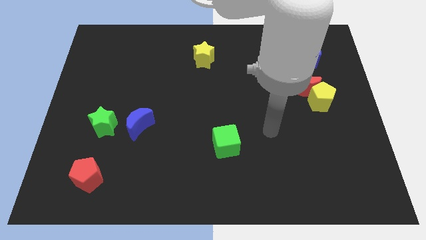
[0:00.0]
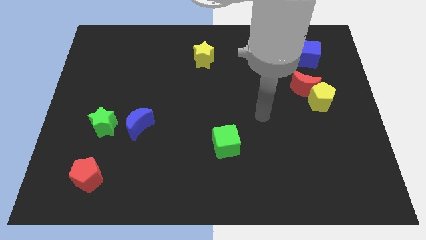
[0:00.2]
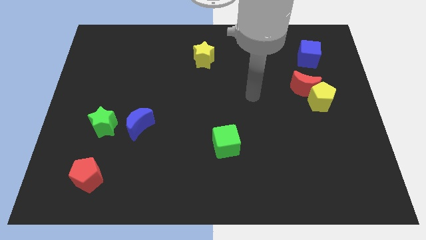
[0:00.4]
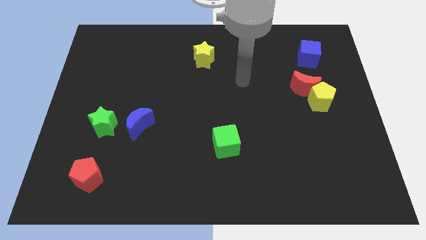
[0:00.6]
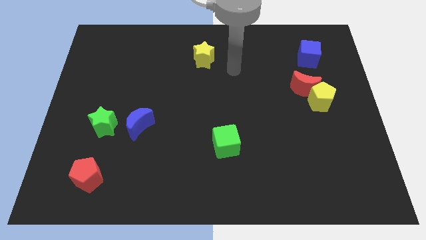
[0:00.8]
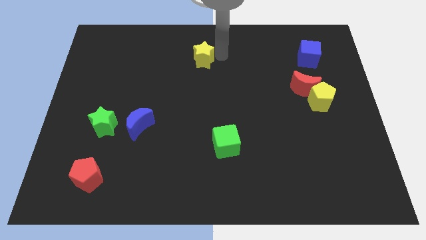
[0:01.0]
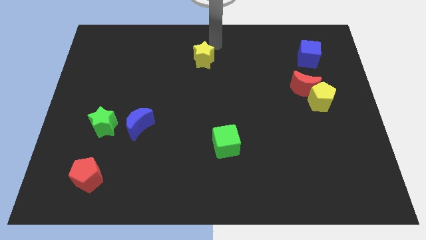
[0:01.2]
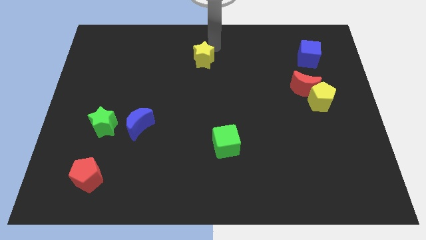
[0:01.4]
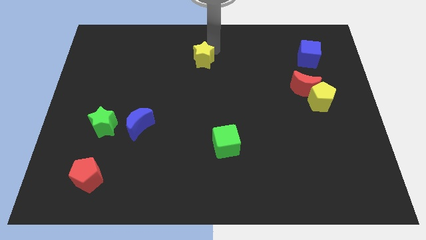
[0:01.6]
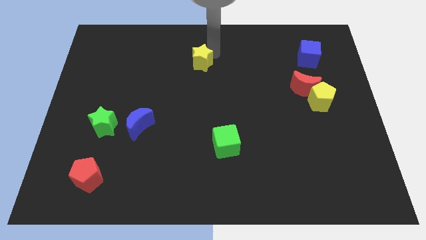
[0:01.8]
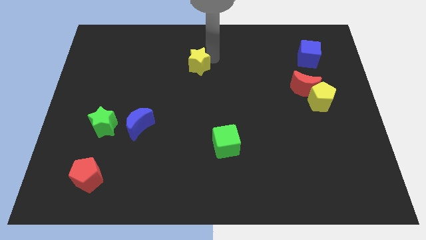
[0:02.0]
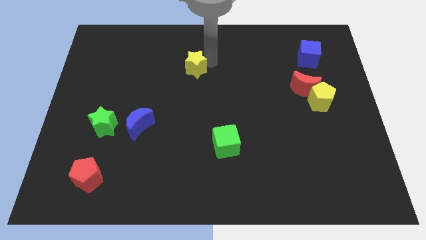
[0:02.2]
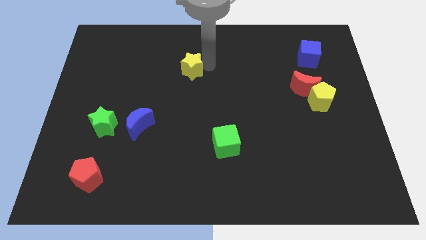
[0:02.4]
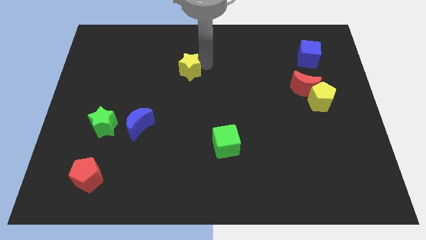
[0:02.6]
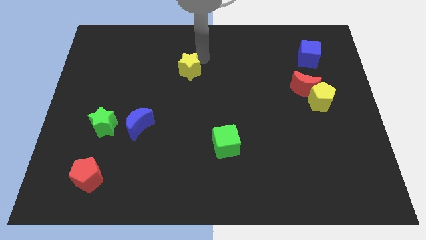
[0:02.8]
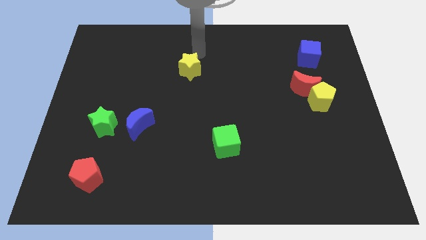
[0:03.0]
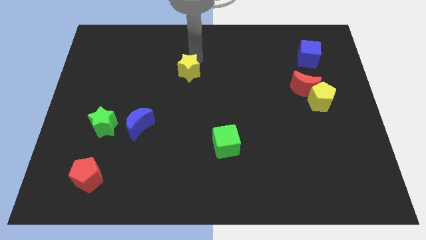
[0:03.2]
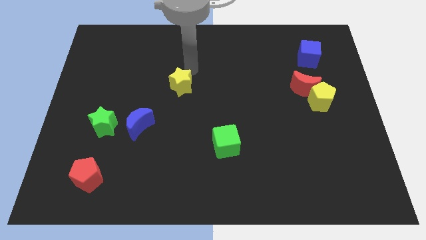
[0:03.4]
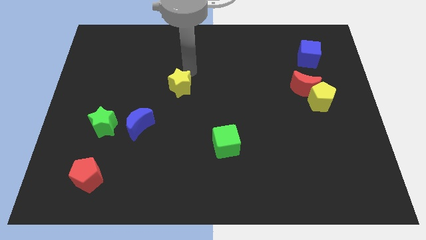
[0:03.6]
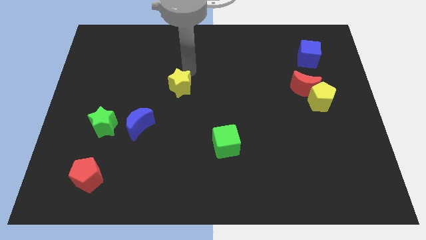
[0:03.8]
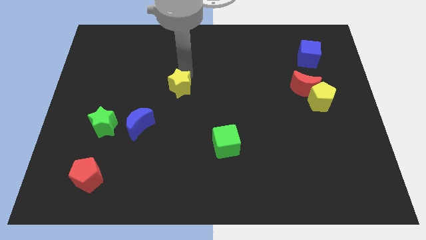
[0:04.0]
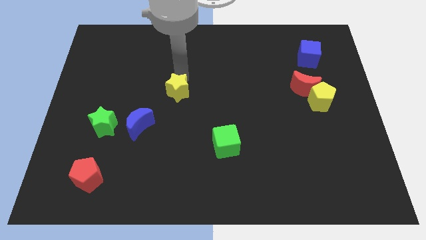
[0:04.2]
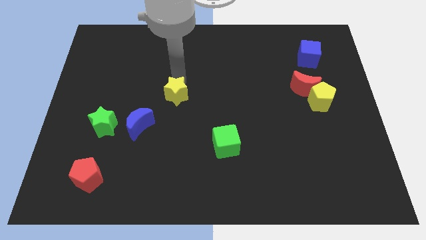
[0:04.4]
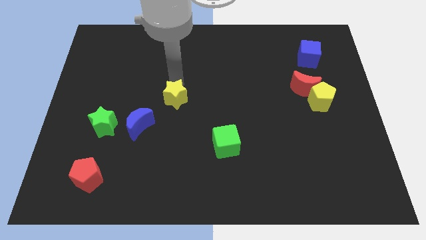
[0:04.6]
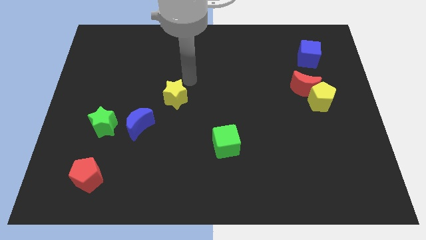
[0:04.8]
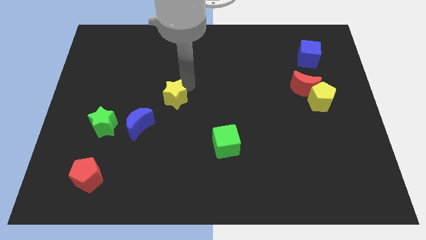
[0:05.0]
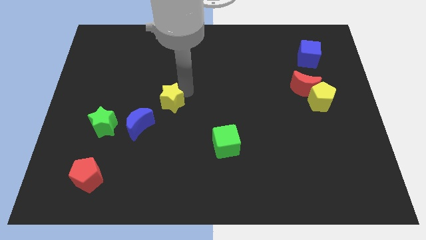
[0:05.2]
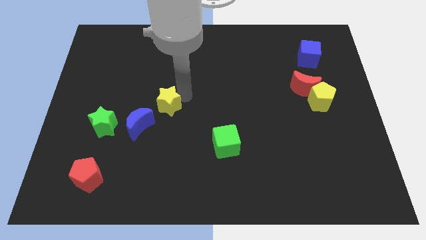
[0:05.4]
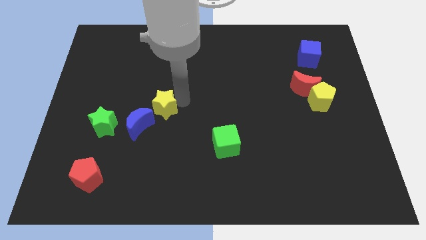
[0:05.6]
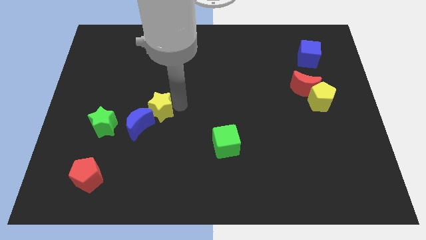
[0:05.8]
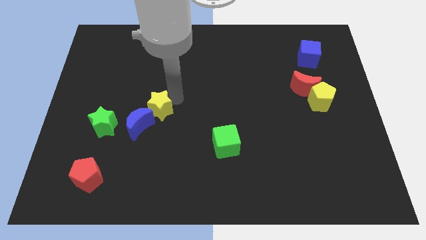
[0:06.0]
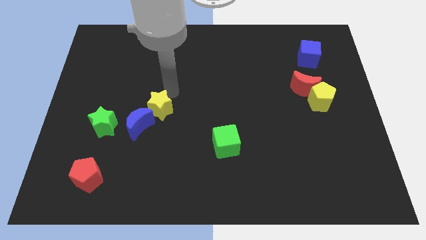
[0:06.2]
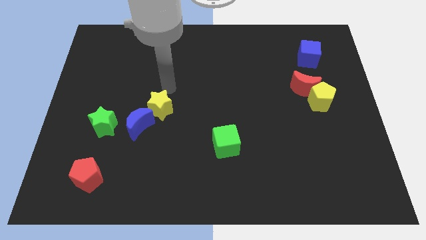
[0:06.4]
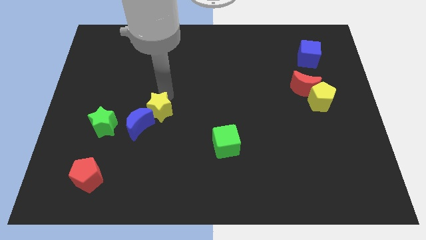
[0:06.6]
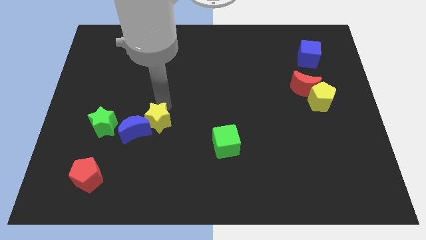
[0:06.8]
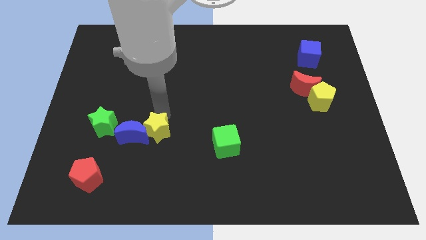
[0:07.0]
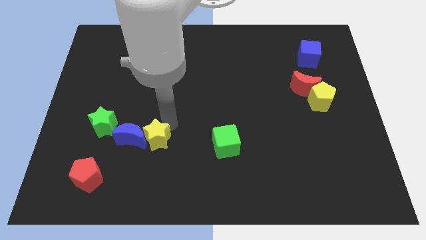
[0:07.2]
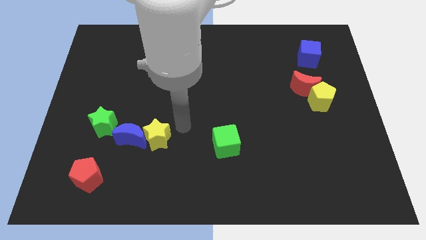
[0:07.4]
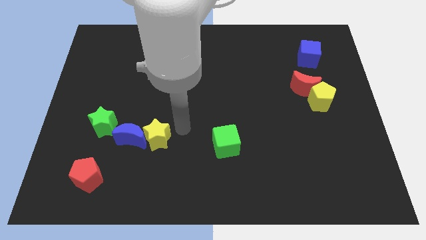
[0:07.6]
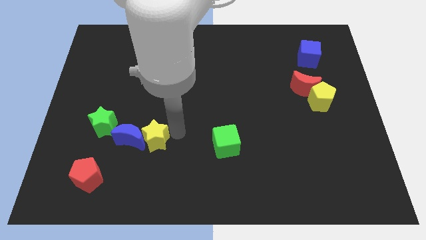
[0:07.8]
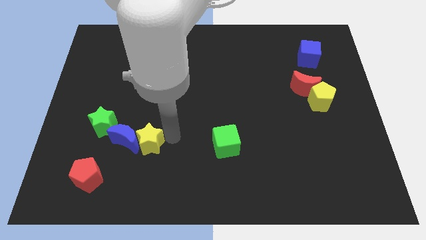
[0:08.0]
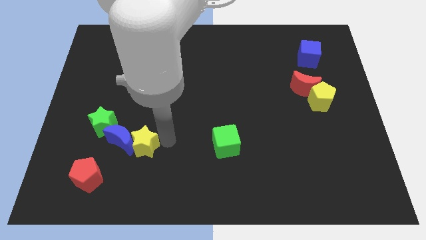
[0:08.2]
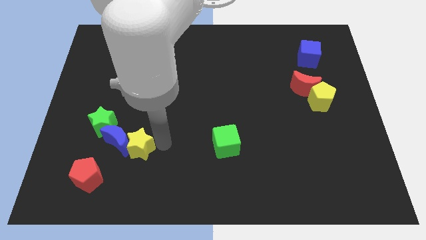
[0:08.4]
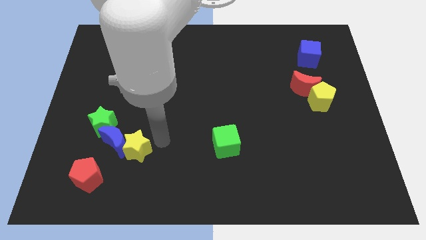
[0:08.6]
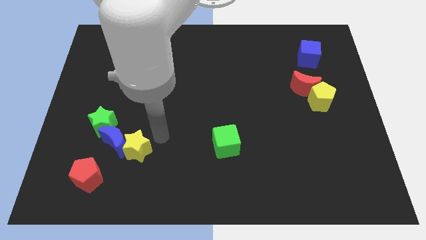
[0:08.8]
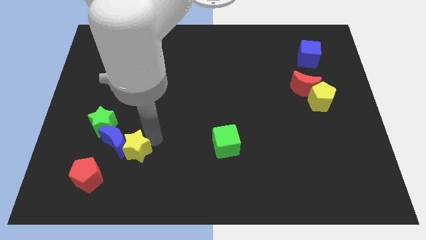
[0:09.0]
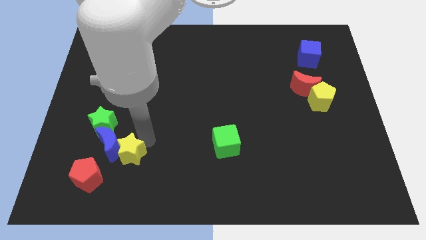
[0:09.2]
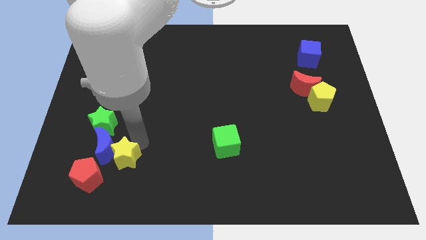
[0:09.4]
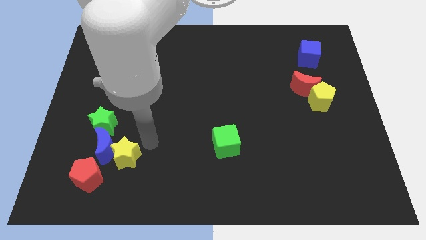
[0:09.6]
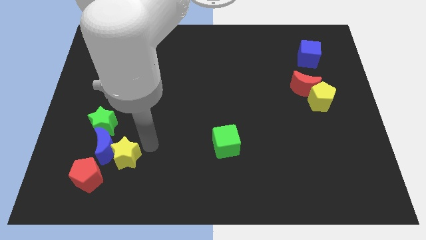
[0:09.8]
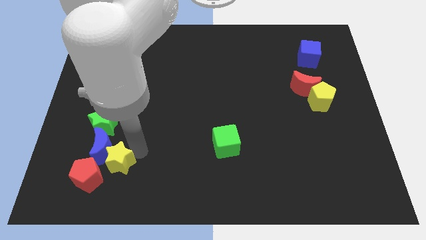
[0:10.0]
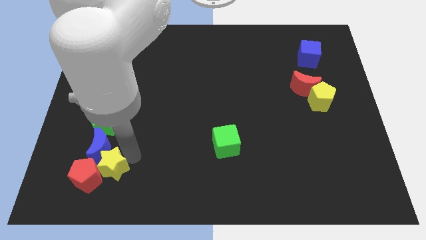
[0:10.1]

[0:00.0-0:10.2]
move the yellow star next to the red pentagon

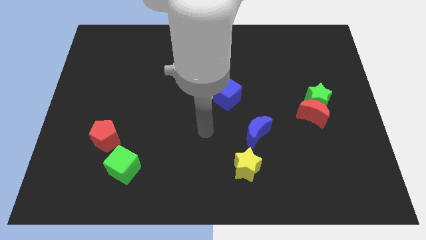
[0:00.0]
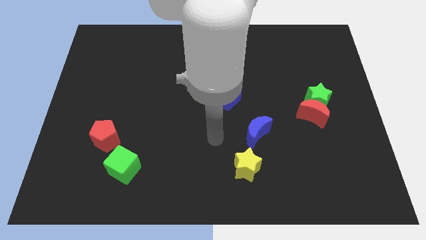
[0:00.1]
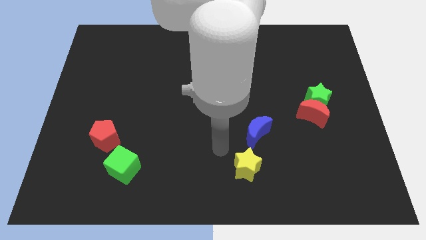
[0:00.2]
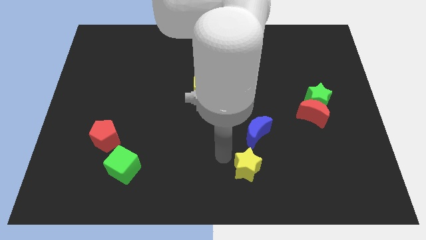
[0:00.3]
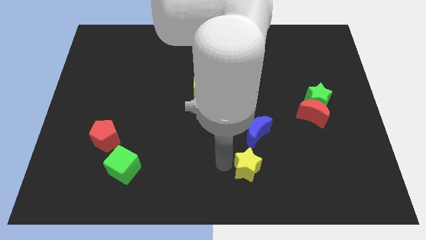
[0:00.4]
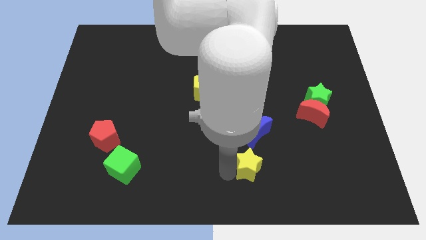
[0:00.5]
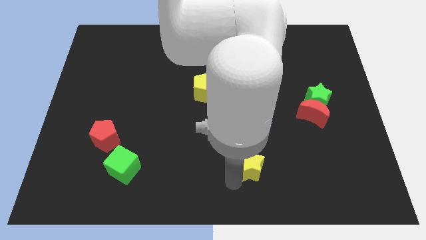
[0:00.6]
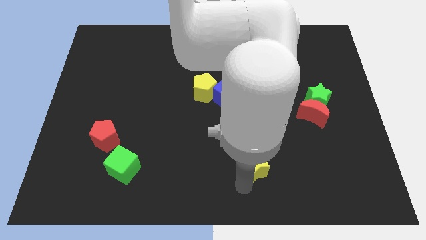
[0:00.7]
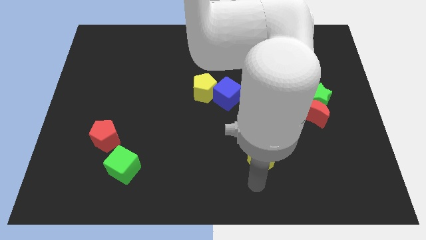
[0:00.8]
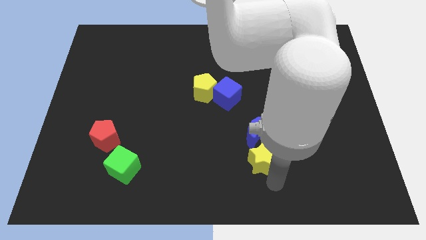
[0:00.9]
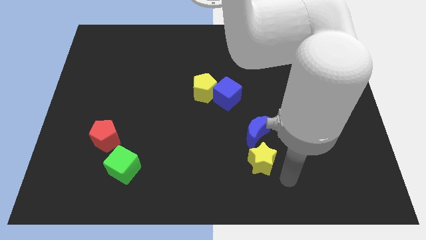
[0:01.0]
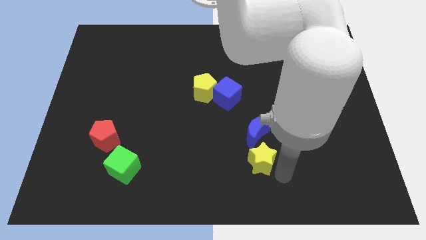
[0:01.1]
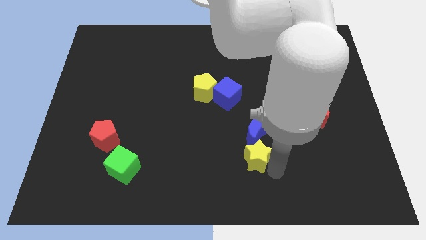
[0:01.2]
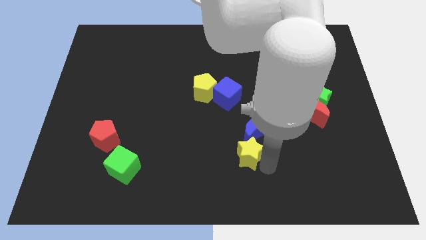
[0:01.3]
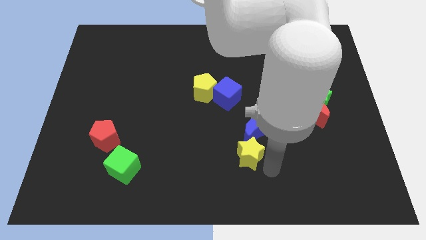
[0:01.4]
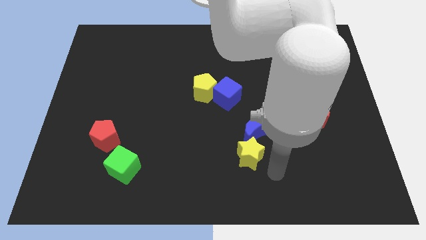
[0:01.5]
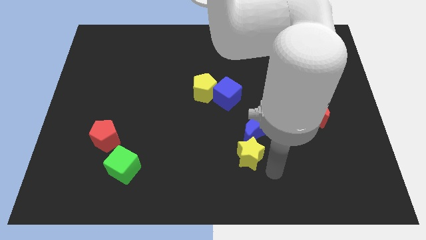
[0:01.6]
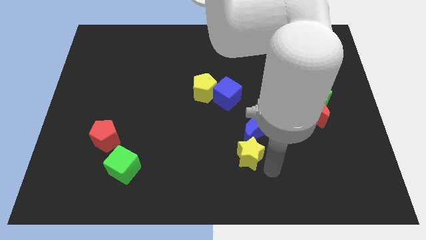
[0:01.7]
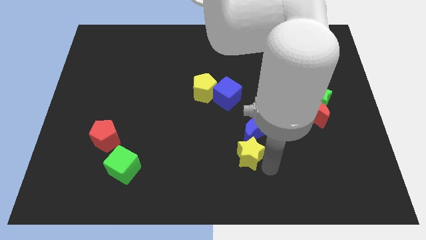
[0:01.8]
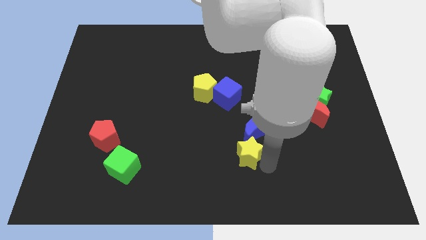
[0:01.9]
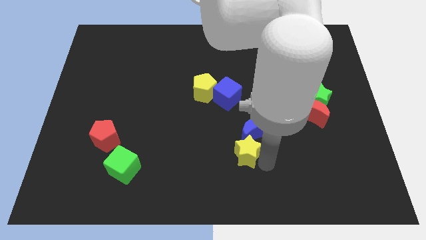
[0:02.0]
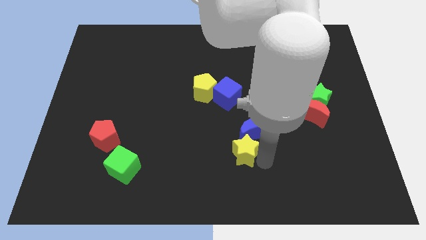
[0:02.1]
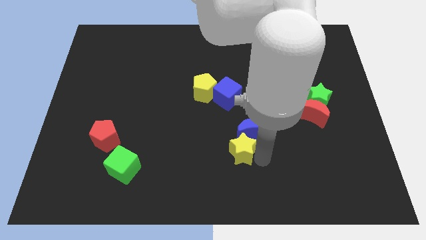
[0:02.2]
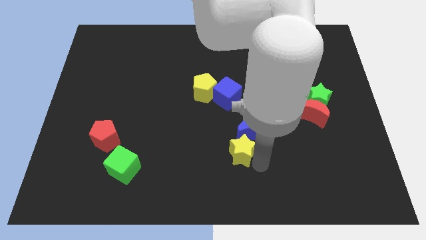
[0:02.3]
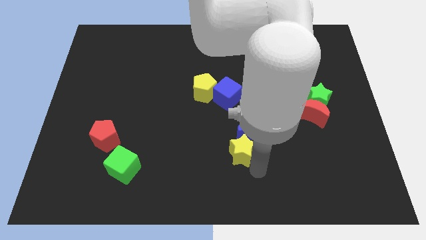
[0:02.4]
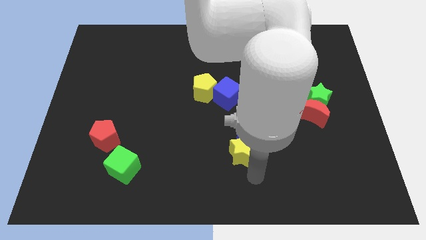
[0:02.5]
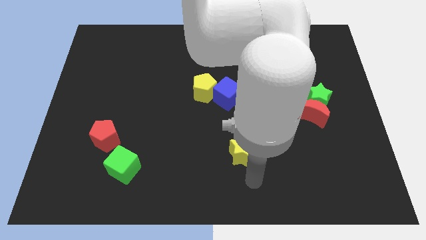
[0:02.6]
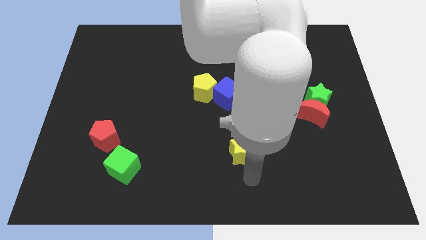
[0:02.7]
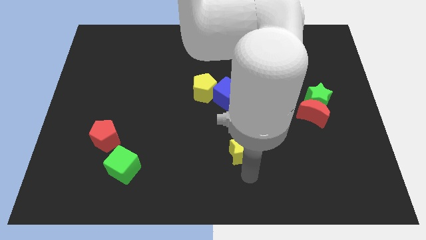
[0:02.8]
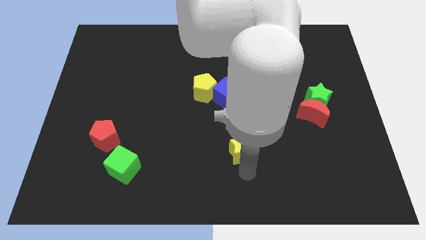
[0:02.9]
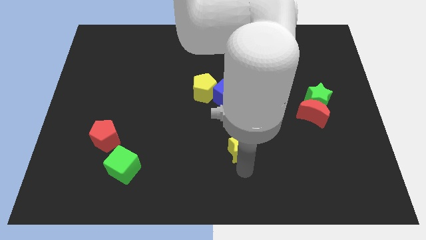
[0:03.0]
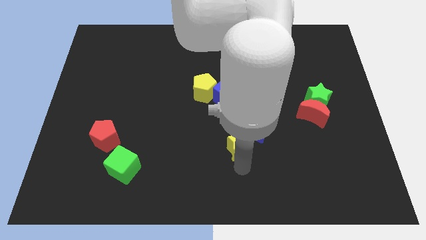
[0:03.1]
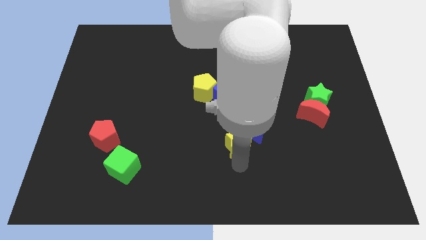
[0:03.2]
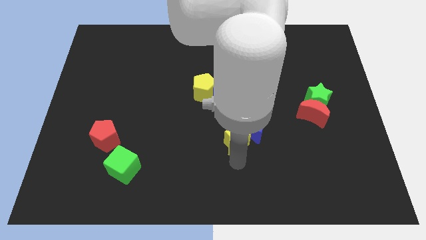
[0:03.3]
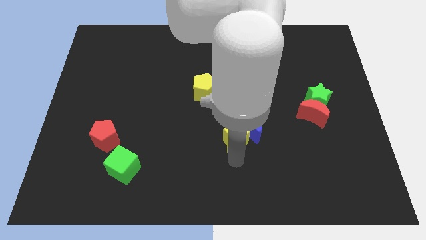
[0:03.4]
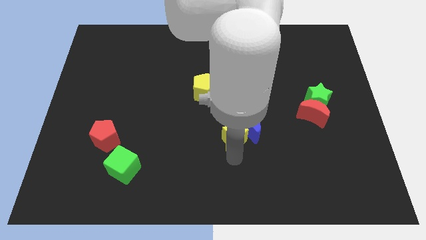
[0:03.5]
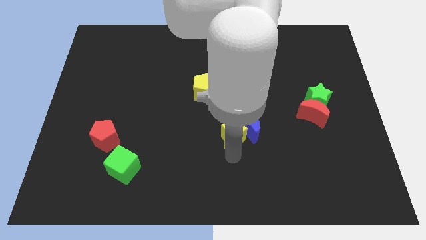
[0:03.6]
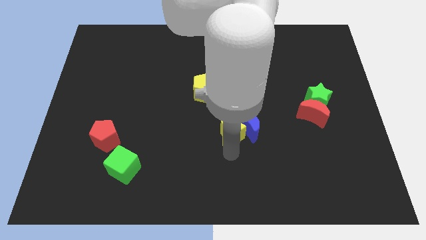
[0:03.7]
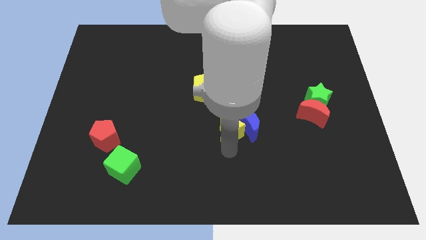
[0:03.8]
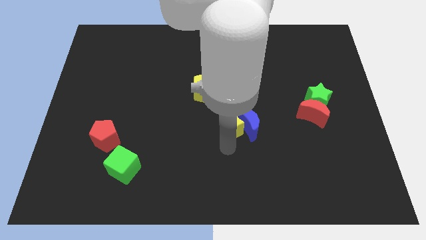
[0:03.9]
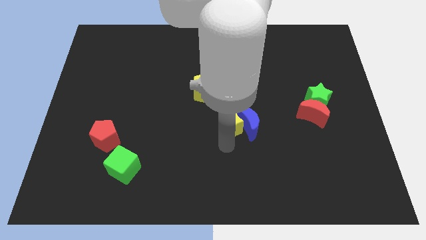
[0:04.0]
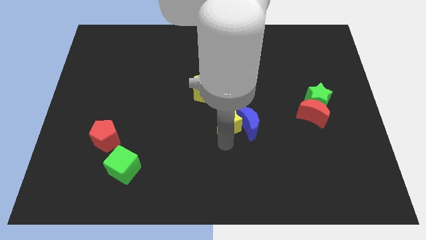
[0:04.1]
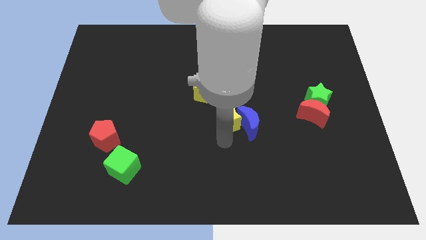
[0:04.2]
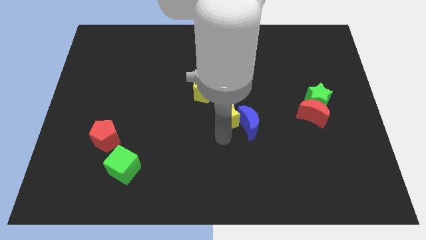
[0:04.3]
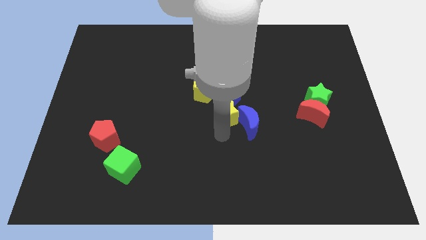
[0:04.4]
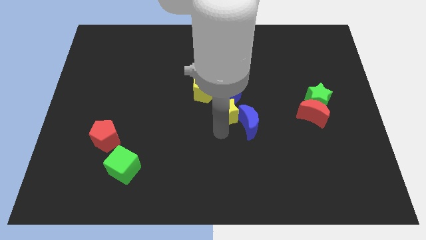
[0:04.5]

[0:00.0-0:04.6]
push the yellow star to the blue cube
